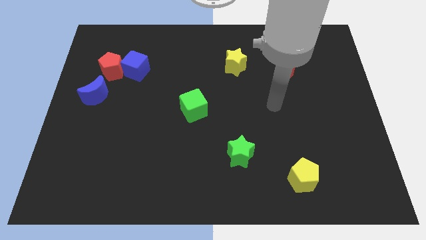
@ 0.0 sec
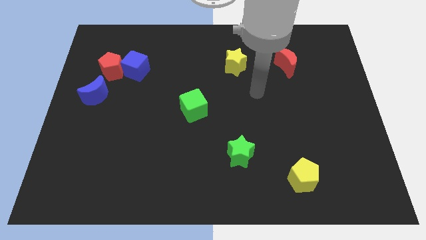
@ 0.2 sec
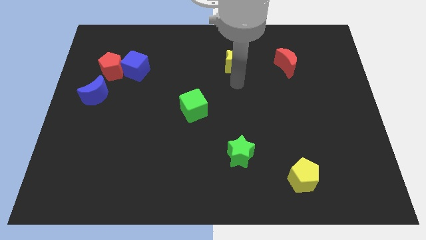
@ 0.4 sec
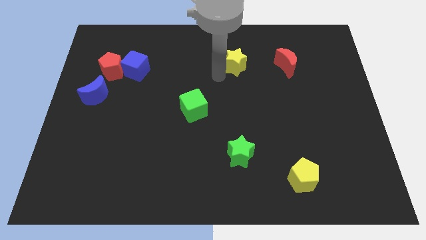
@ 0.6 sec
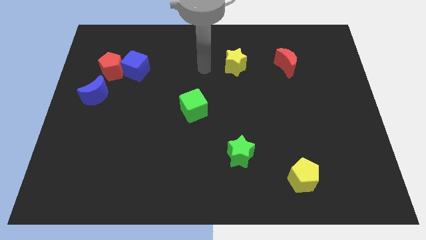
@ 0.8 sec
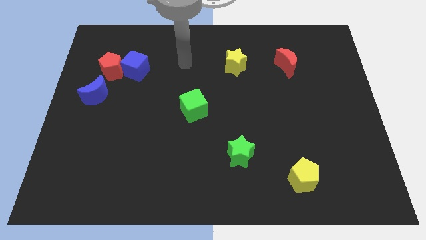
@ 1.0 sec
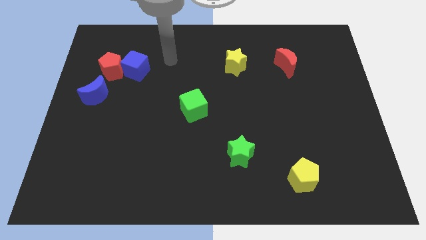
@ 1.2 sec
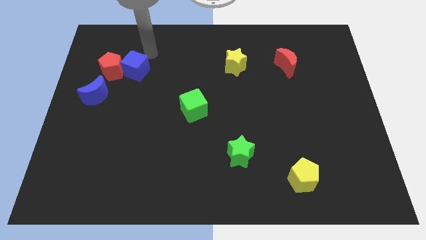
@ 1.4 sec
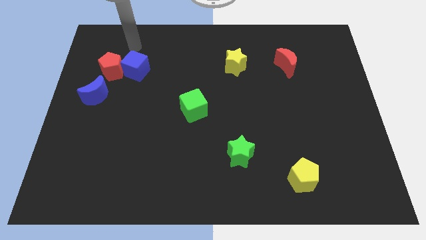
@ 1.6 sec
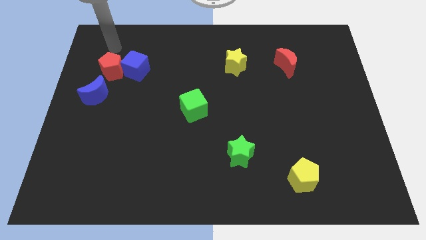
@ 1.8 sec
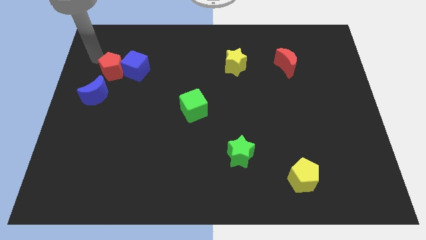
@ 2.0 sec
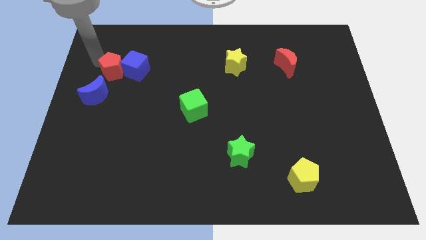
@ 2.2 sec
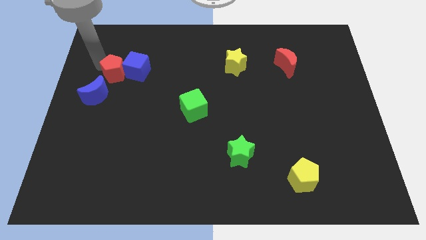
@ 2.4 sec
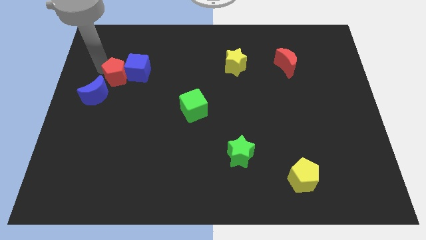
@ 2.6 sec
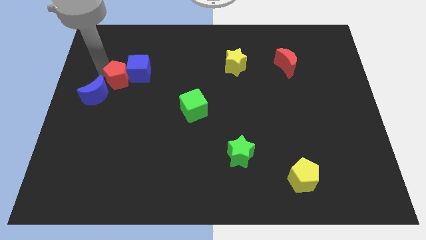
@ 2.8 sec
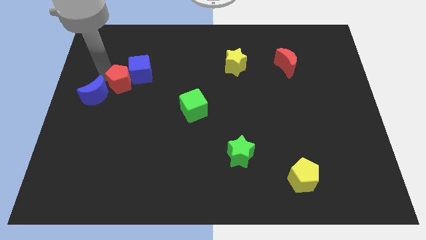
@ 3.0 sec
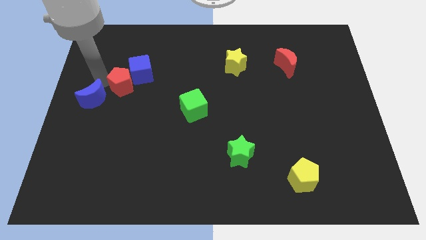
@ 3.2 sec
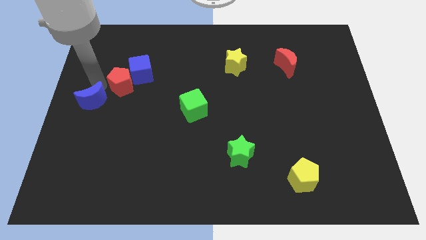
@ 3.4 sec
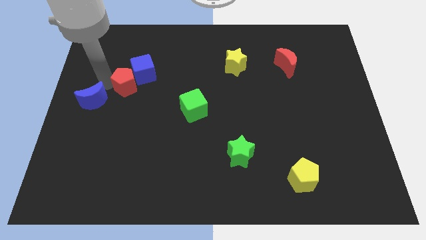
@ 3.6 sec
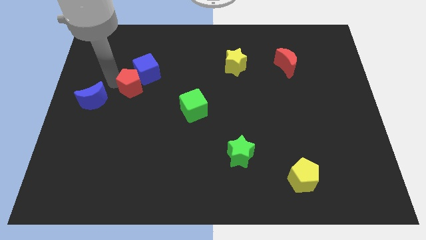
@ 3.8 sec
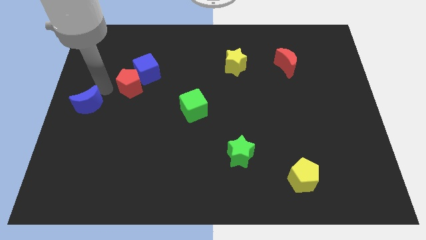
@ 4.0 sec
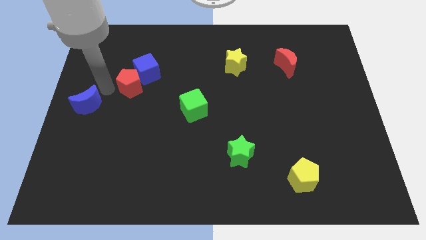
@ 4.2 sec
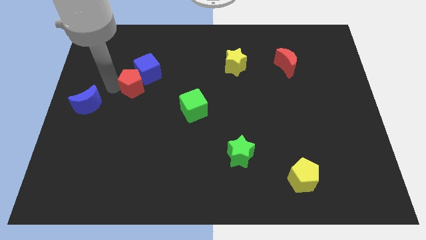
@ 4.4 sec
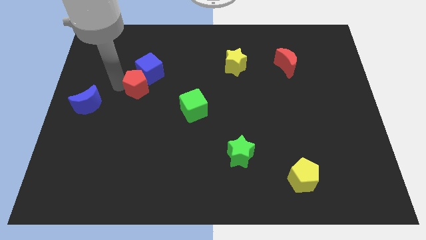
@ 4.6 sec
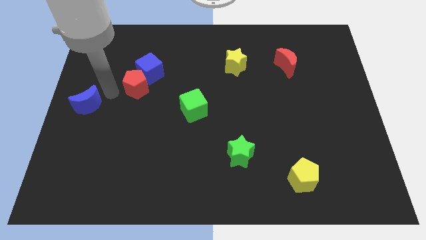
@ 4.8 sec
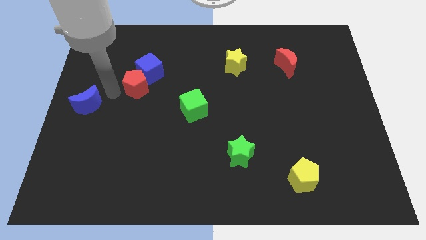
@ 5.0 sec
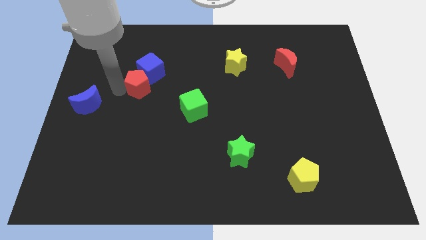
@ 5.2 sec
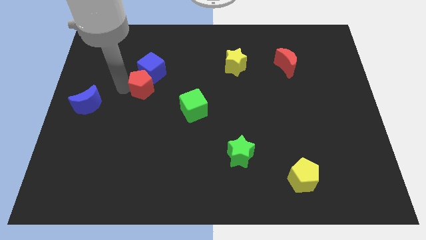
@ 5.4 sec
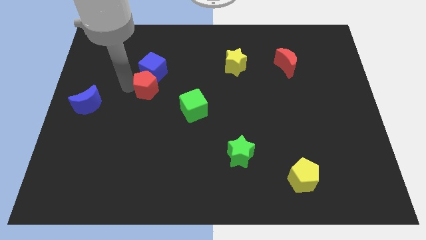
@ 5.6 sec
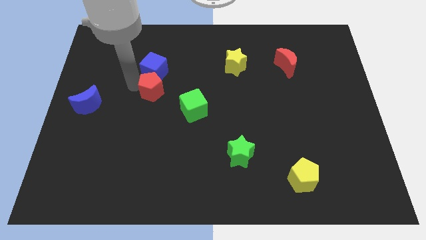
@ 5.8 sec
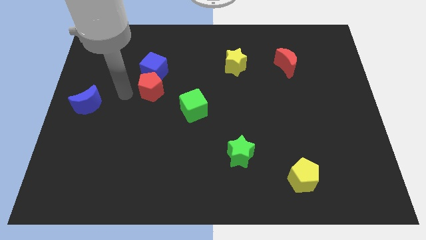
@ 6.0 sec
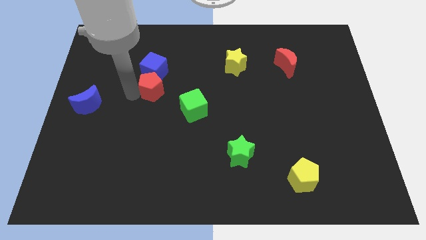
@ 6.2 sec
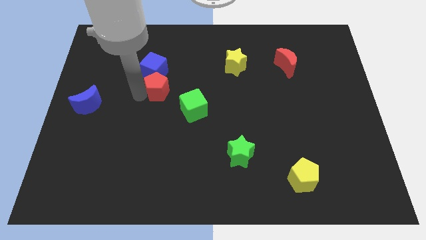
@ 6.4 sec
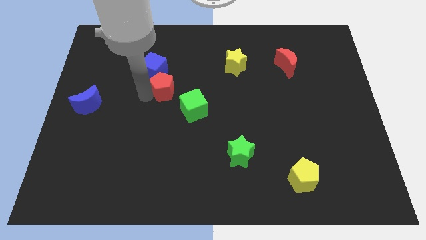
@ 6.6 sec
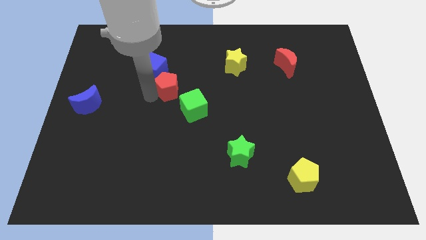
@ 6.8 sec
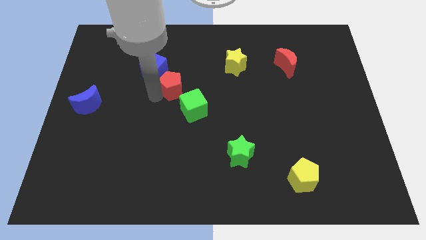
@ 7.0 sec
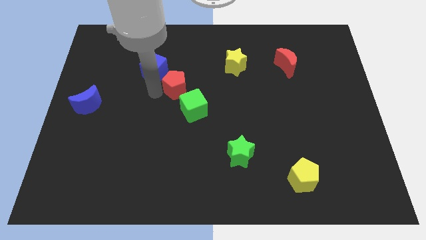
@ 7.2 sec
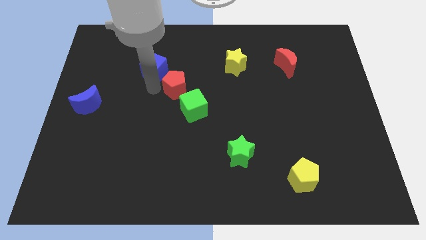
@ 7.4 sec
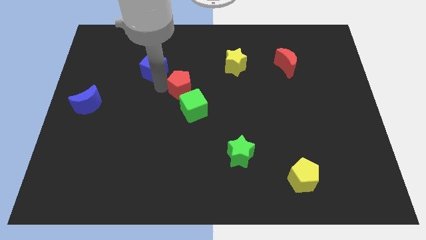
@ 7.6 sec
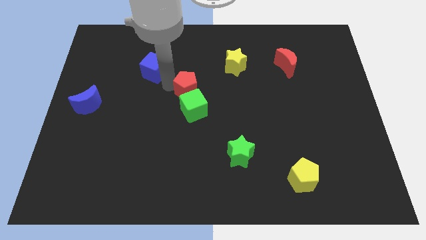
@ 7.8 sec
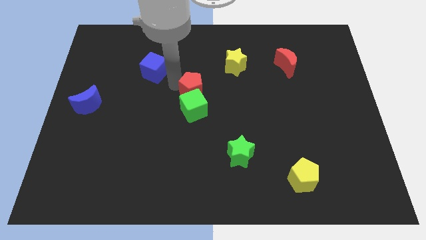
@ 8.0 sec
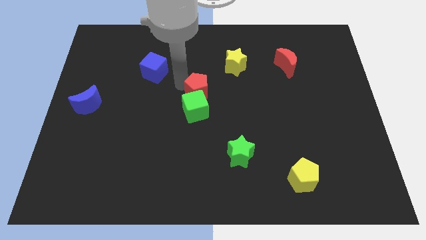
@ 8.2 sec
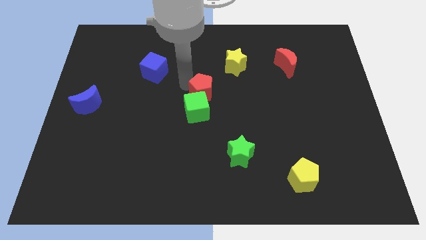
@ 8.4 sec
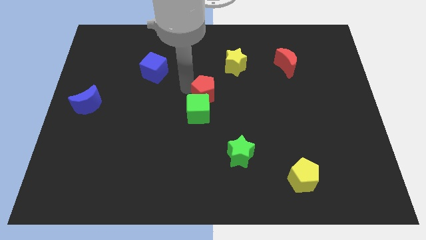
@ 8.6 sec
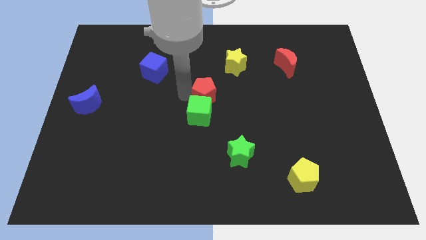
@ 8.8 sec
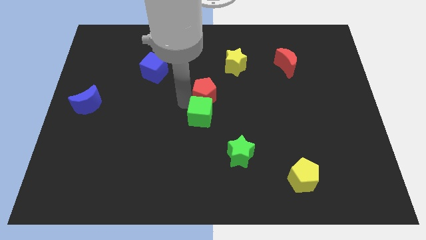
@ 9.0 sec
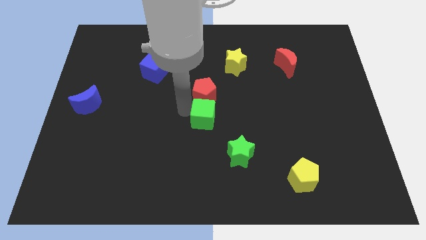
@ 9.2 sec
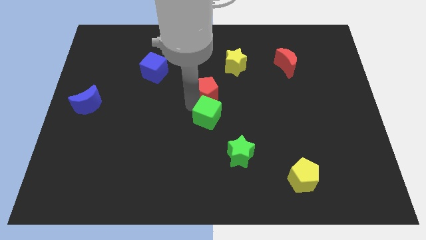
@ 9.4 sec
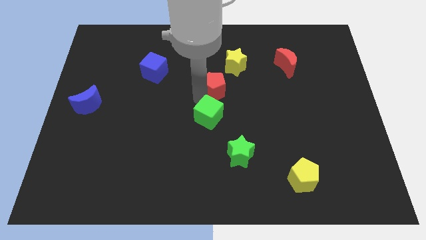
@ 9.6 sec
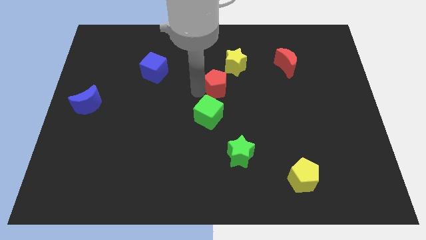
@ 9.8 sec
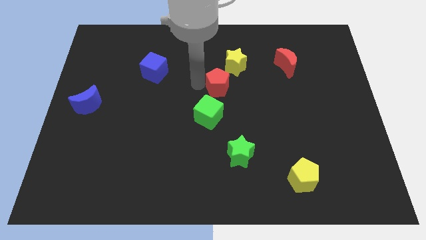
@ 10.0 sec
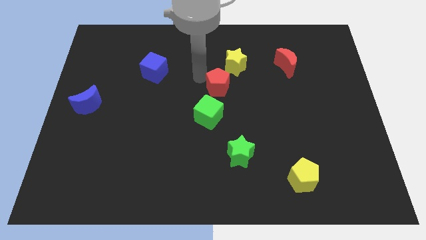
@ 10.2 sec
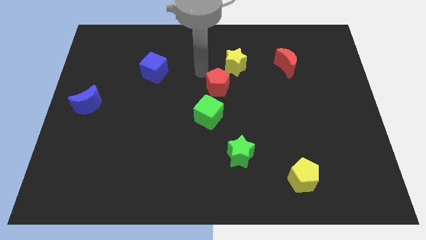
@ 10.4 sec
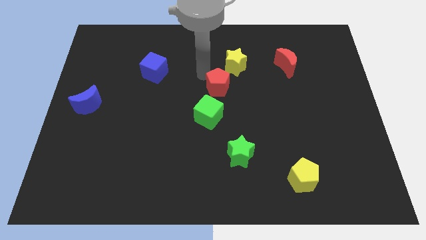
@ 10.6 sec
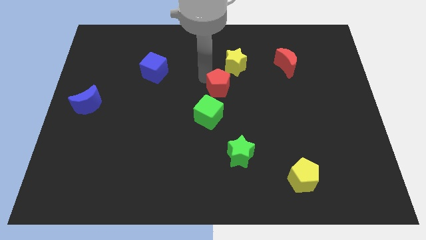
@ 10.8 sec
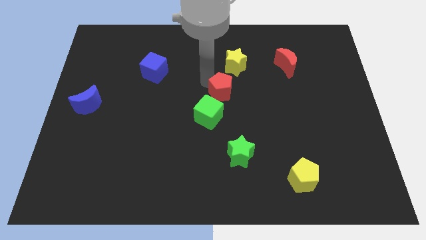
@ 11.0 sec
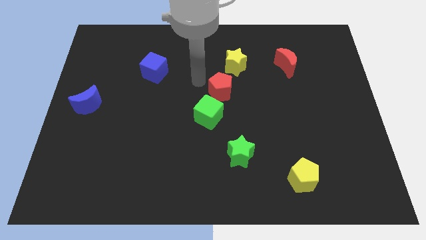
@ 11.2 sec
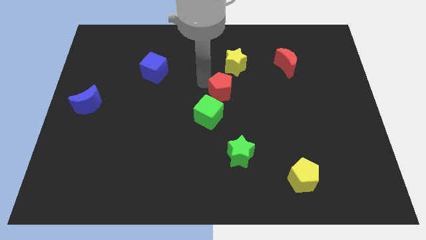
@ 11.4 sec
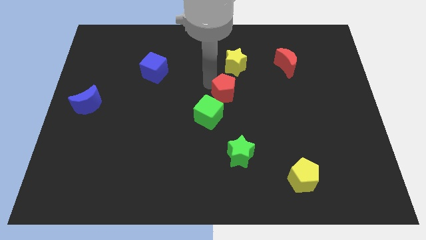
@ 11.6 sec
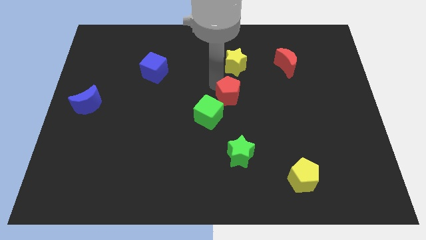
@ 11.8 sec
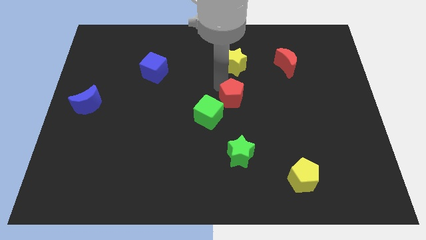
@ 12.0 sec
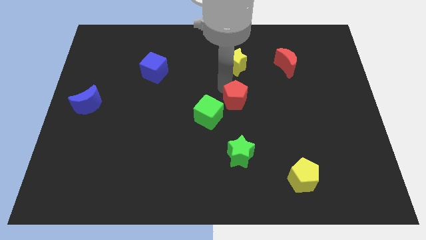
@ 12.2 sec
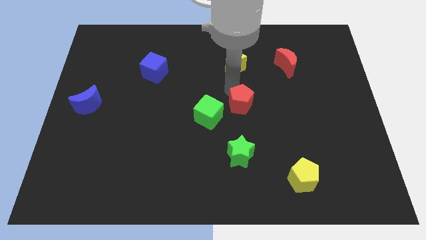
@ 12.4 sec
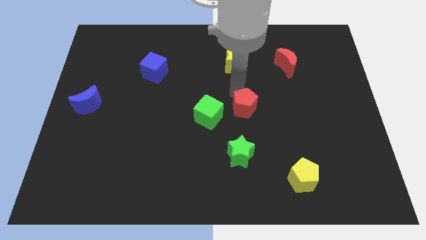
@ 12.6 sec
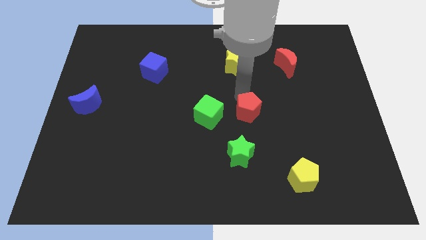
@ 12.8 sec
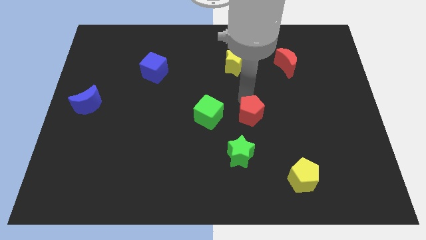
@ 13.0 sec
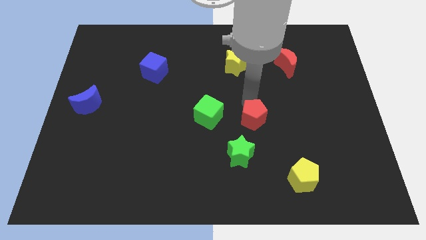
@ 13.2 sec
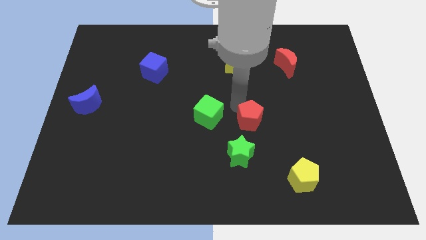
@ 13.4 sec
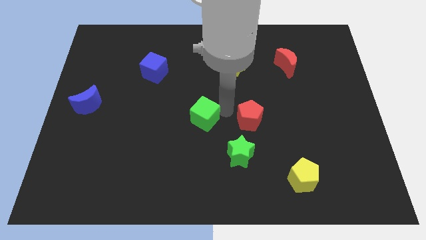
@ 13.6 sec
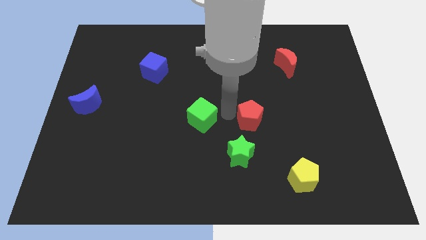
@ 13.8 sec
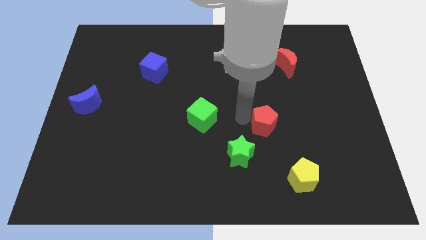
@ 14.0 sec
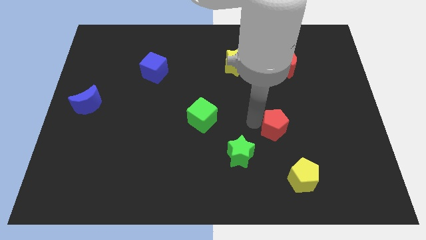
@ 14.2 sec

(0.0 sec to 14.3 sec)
push the red pentagon to the top side of the yellow pentagon

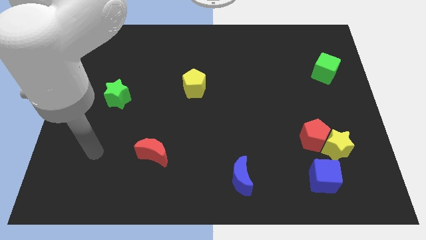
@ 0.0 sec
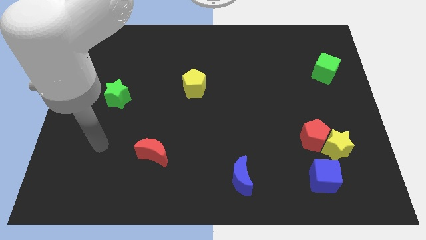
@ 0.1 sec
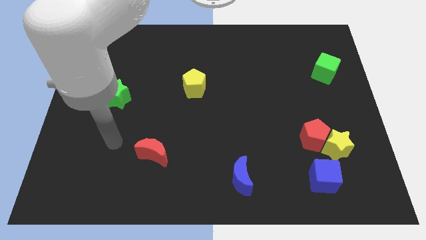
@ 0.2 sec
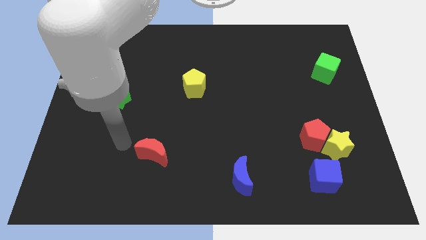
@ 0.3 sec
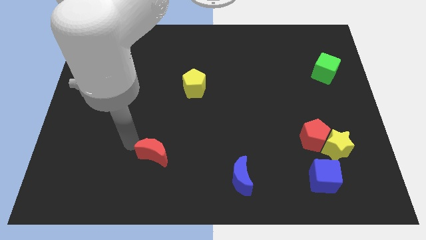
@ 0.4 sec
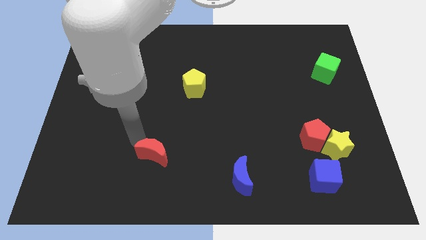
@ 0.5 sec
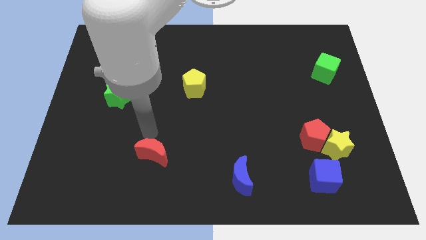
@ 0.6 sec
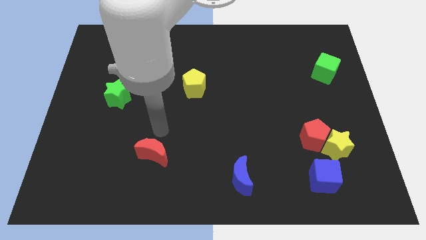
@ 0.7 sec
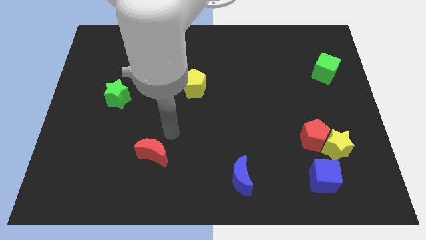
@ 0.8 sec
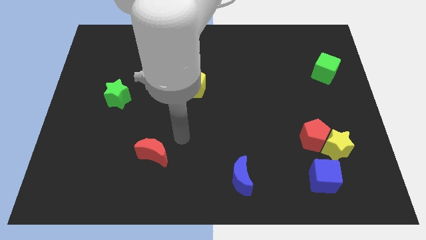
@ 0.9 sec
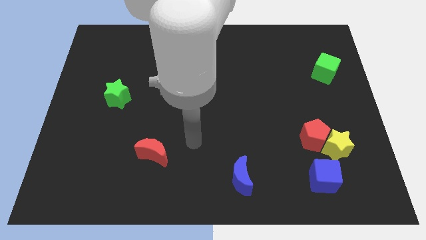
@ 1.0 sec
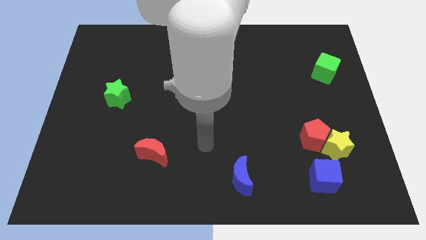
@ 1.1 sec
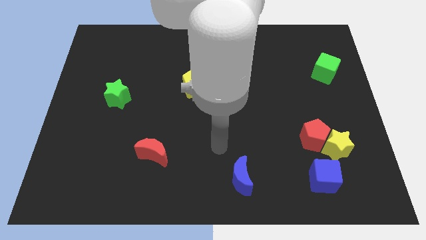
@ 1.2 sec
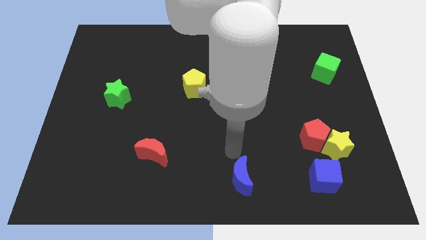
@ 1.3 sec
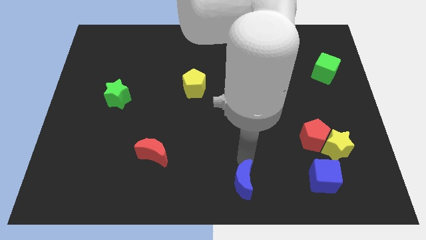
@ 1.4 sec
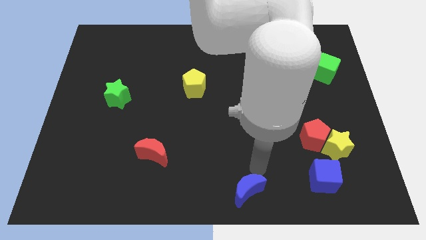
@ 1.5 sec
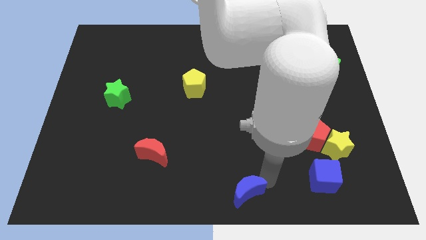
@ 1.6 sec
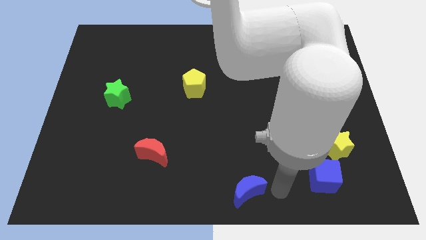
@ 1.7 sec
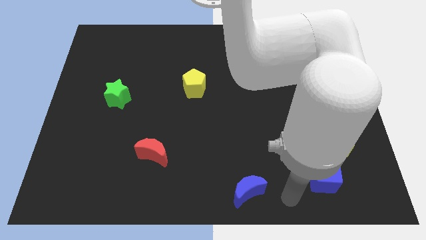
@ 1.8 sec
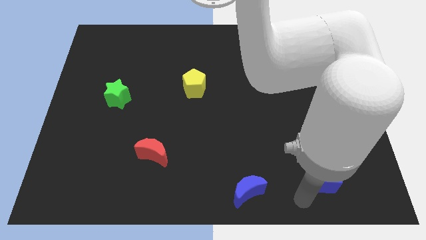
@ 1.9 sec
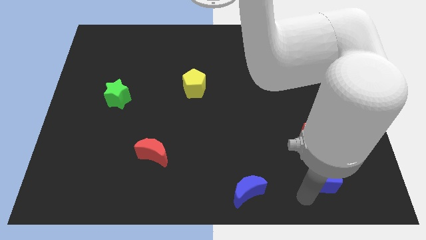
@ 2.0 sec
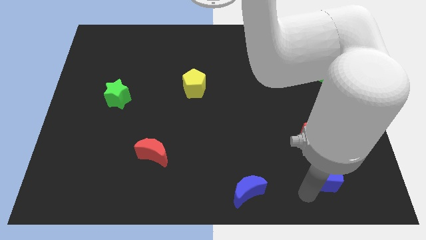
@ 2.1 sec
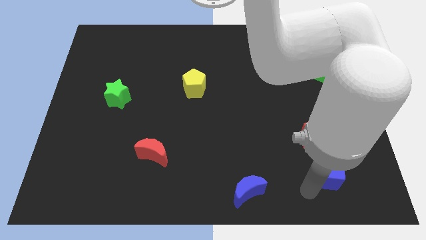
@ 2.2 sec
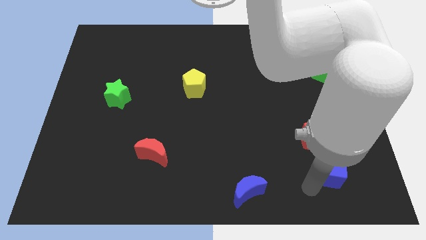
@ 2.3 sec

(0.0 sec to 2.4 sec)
put the blue cube to the bottom right of the red pentagon
